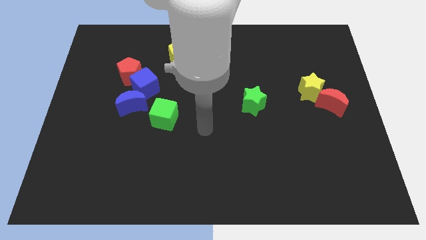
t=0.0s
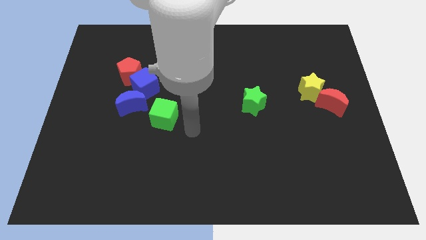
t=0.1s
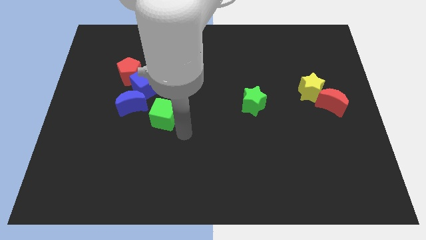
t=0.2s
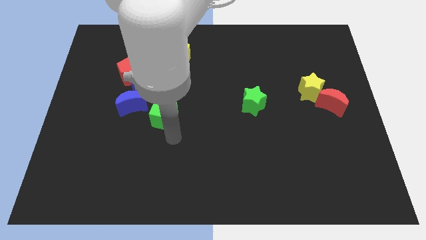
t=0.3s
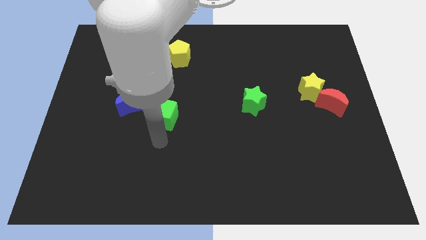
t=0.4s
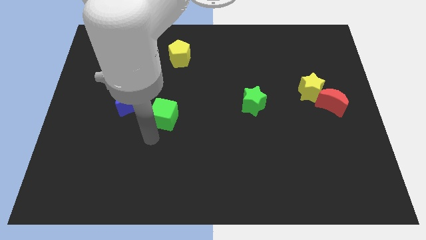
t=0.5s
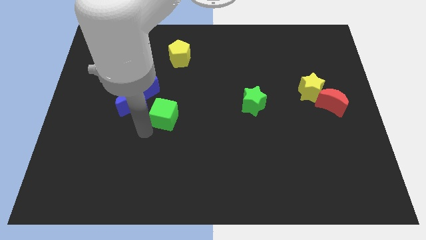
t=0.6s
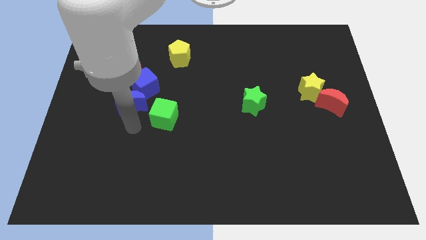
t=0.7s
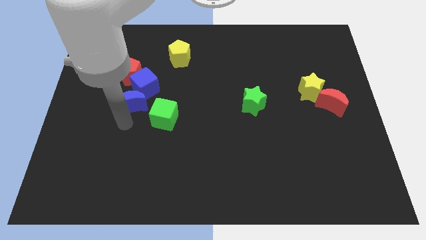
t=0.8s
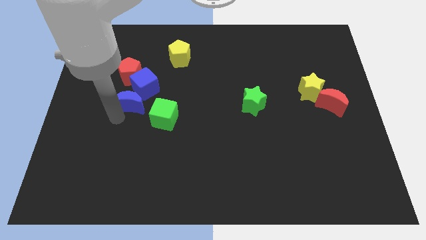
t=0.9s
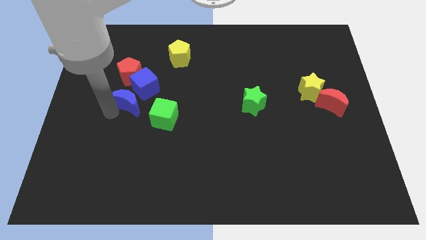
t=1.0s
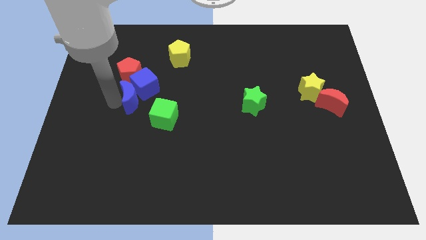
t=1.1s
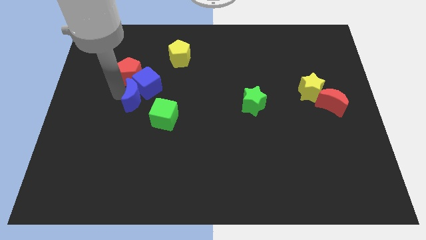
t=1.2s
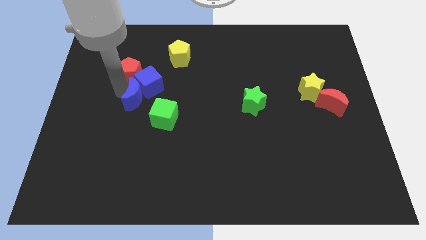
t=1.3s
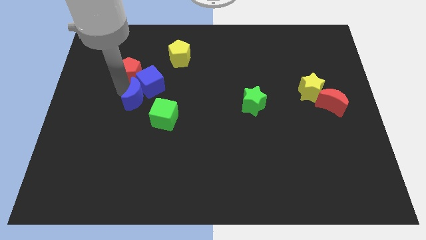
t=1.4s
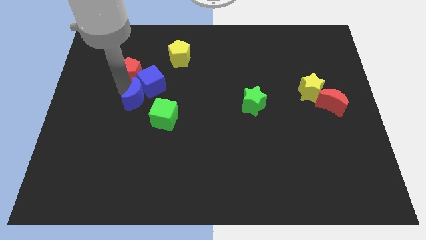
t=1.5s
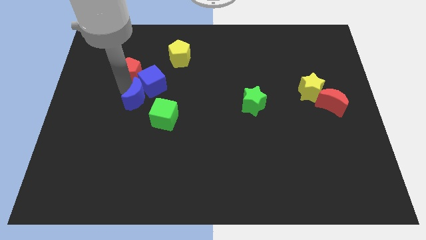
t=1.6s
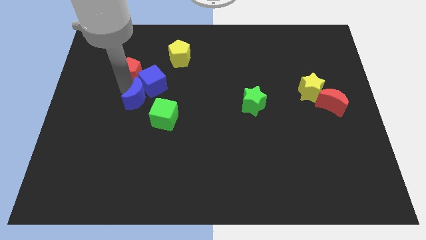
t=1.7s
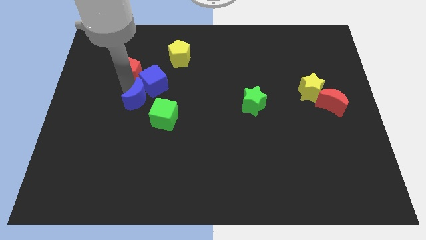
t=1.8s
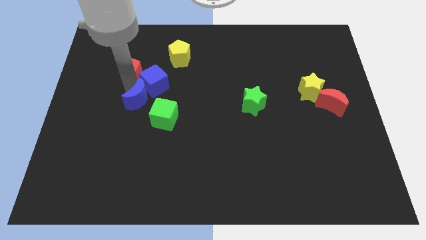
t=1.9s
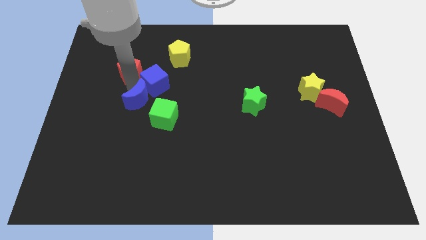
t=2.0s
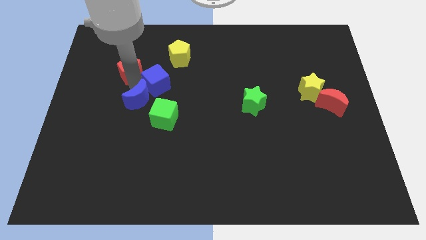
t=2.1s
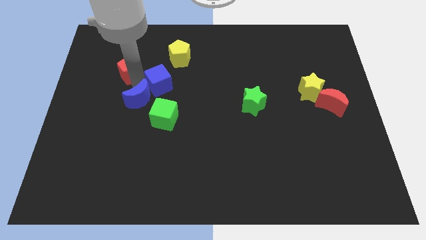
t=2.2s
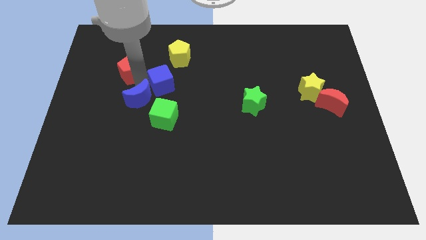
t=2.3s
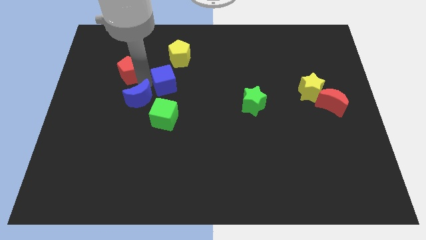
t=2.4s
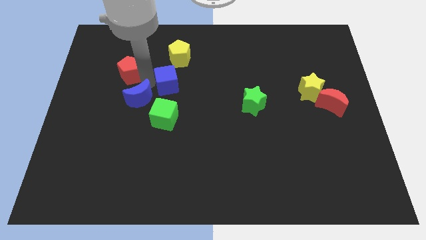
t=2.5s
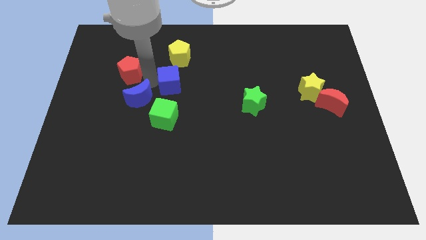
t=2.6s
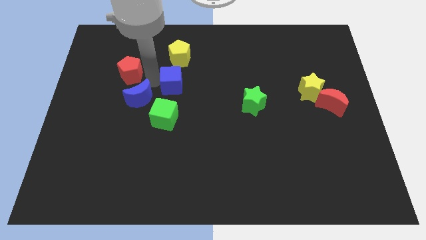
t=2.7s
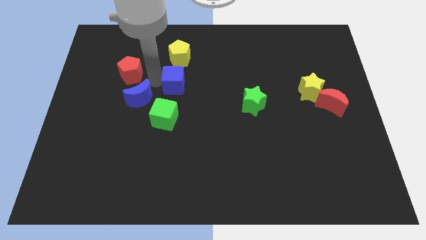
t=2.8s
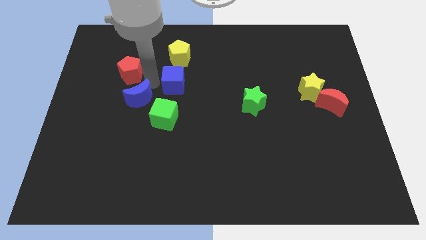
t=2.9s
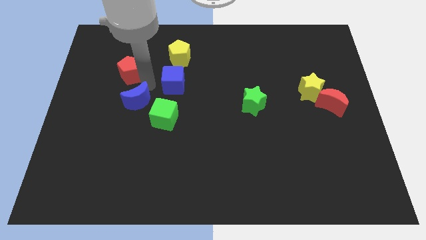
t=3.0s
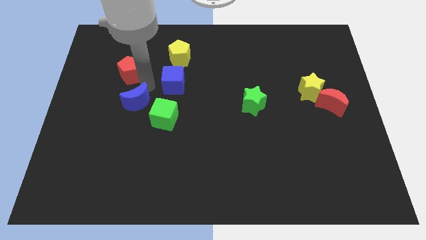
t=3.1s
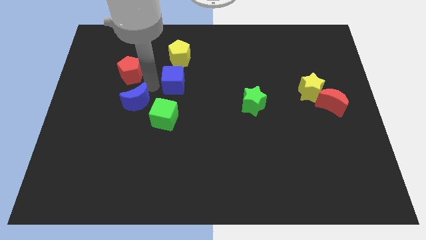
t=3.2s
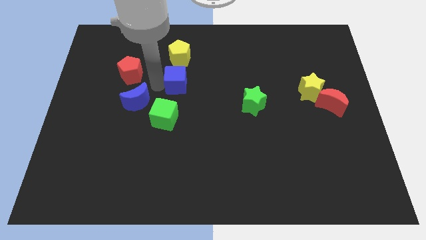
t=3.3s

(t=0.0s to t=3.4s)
move the blue cube away from the red pentagon and blue moon

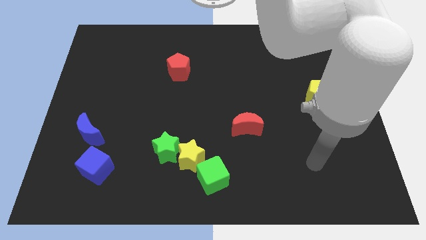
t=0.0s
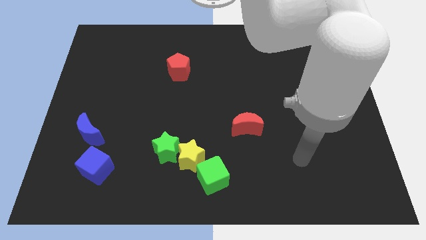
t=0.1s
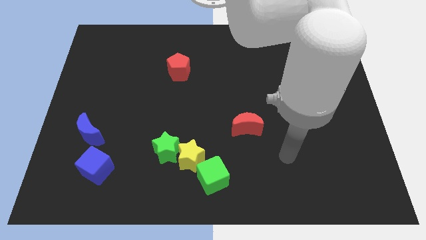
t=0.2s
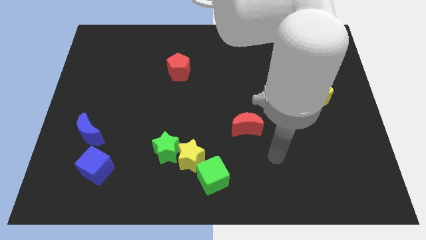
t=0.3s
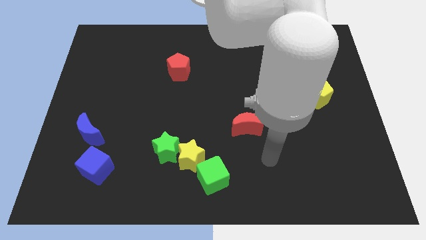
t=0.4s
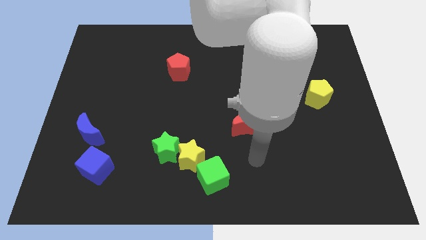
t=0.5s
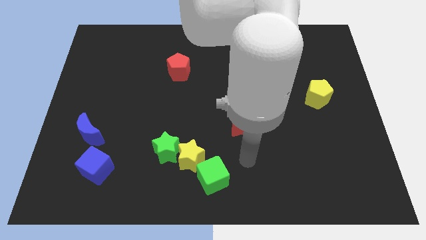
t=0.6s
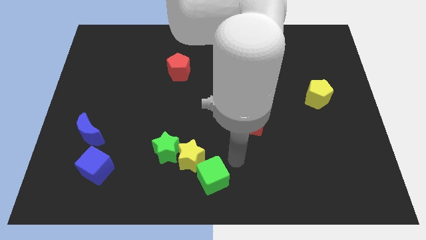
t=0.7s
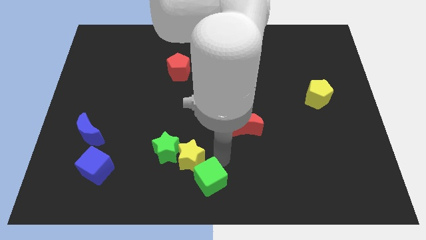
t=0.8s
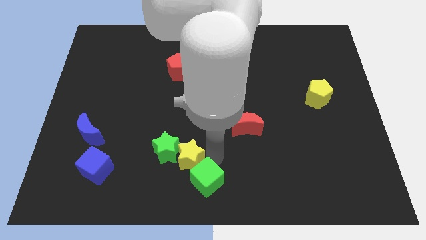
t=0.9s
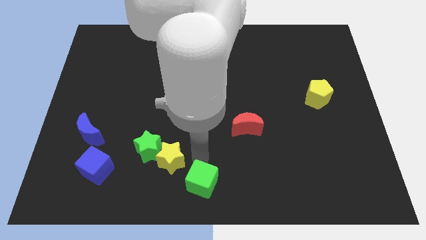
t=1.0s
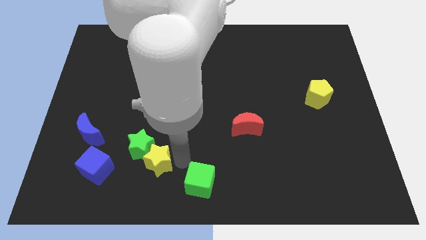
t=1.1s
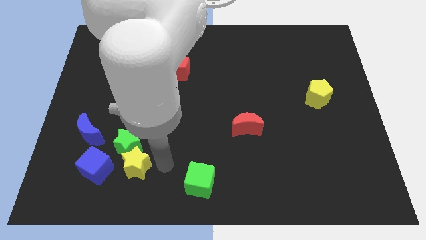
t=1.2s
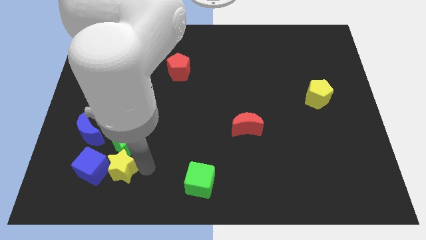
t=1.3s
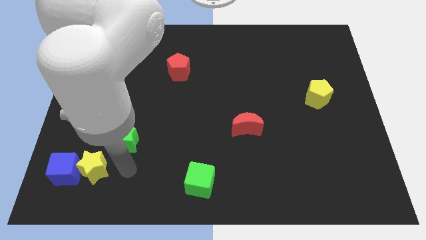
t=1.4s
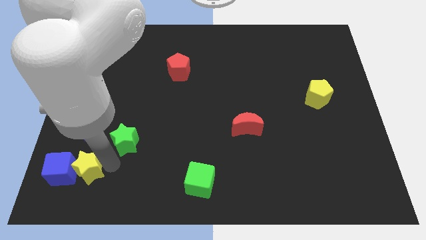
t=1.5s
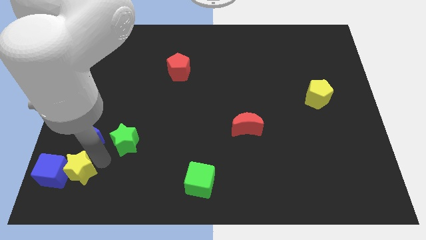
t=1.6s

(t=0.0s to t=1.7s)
separate the green star from the yellow star

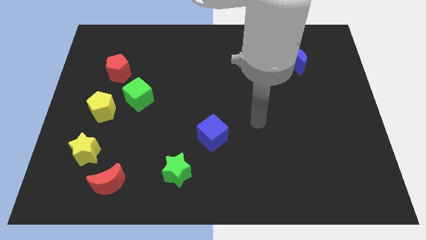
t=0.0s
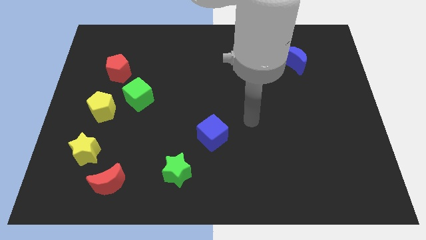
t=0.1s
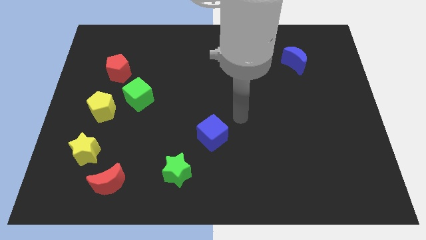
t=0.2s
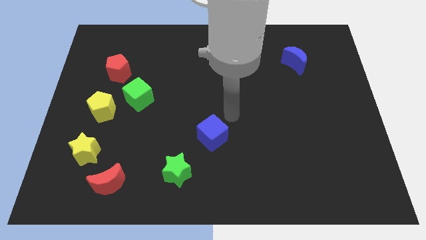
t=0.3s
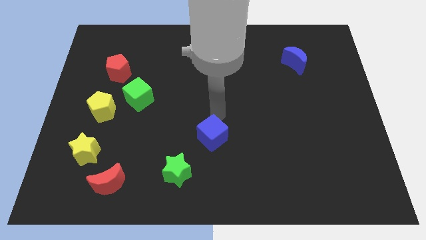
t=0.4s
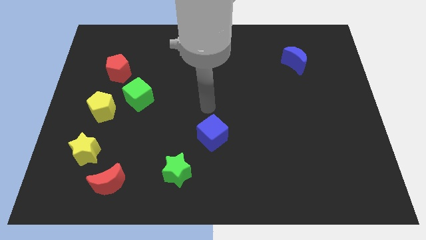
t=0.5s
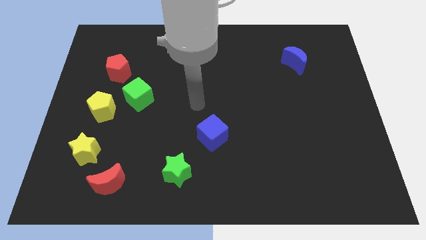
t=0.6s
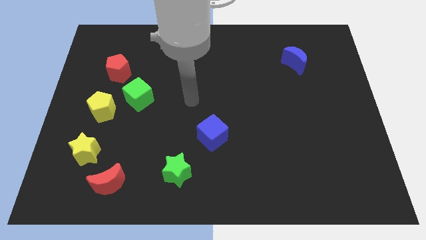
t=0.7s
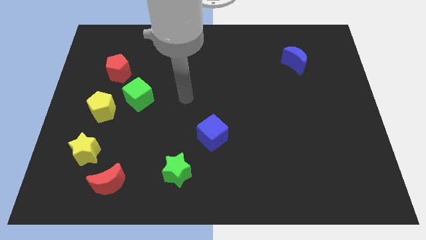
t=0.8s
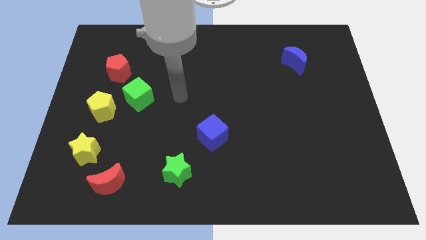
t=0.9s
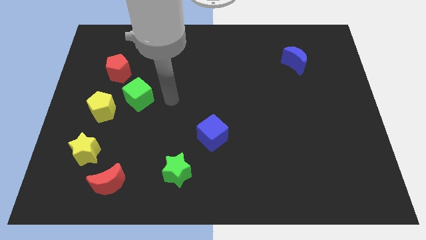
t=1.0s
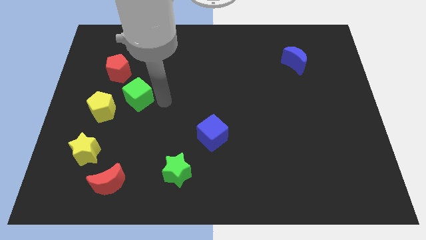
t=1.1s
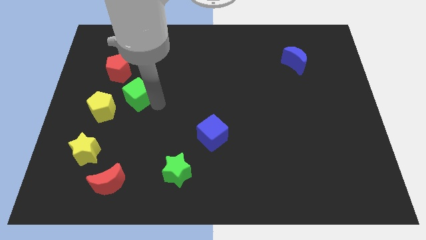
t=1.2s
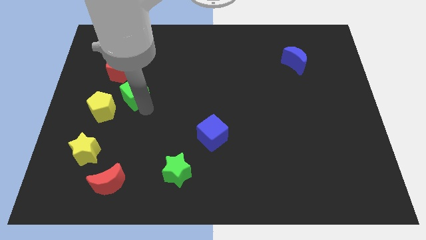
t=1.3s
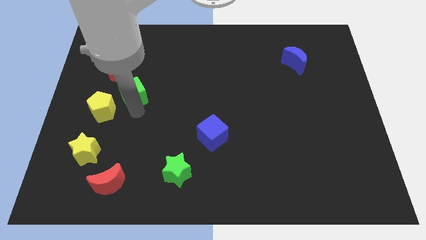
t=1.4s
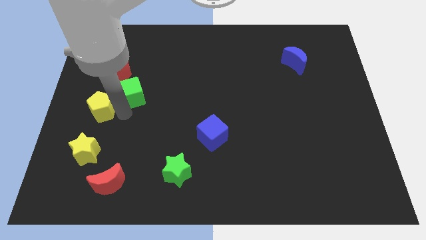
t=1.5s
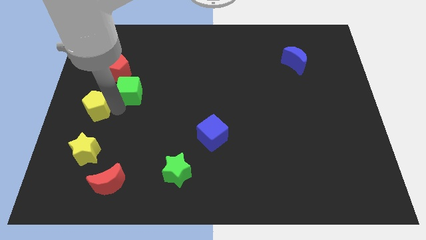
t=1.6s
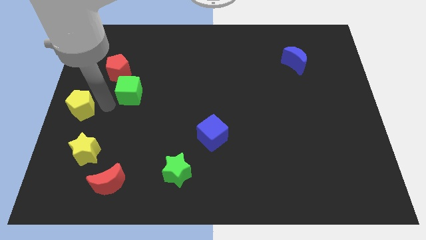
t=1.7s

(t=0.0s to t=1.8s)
move the green cube away from the yellow pentagon

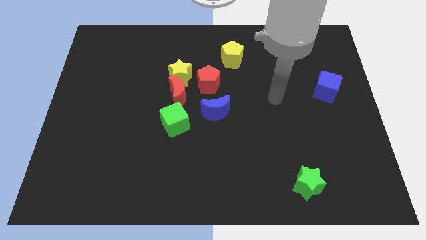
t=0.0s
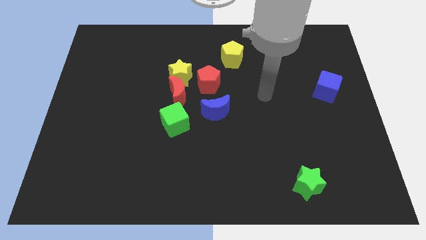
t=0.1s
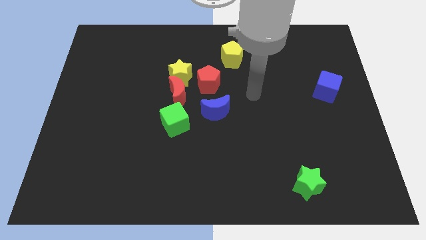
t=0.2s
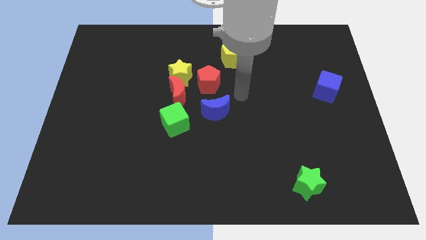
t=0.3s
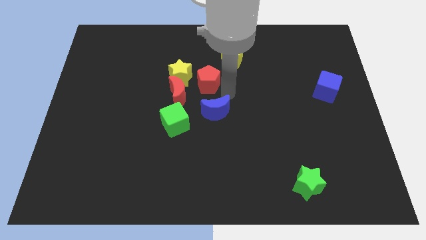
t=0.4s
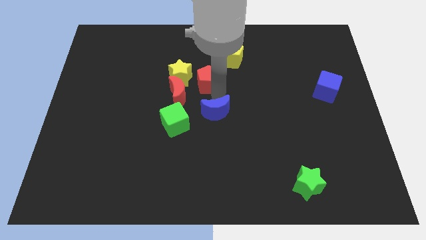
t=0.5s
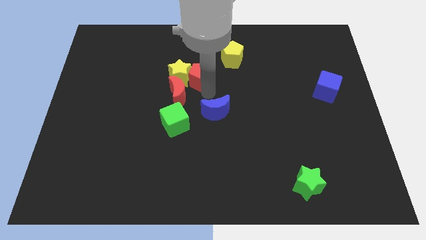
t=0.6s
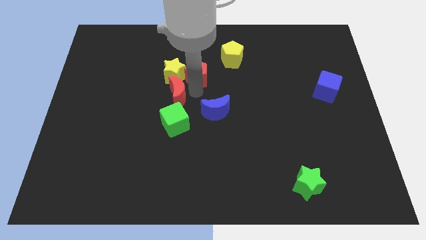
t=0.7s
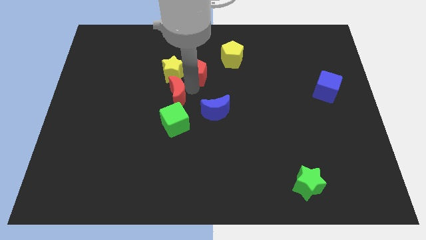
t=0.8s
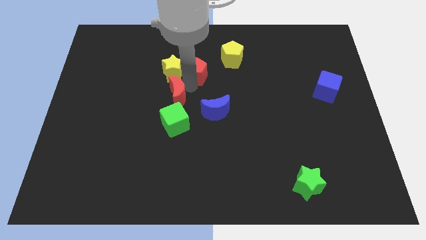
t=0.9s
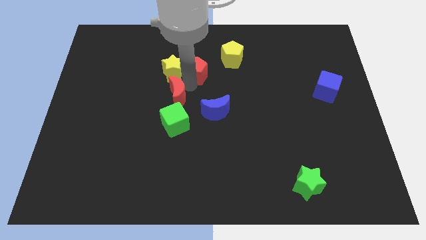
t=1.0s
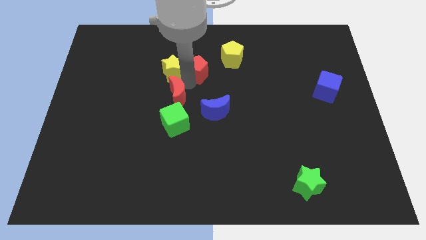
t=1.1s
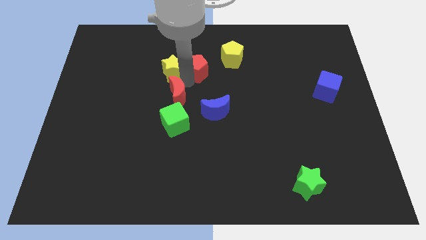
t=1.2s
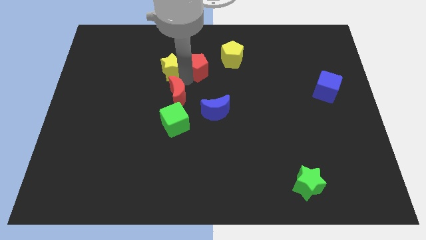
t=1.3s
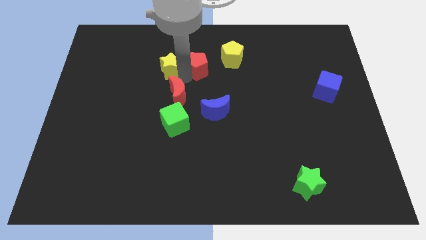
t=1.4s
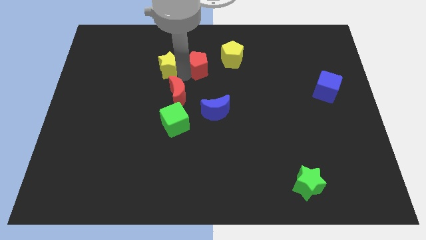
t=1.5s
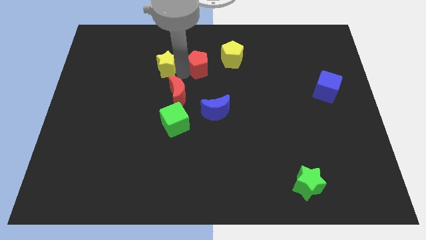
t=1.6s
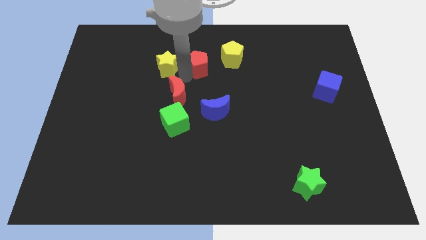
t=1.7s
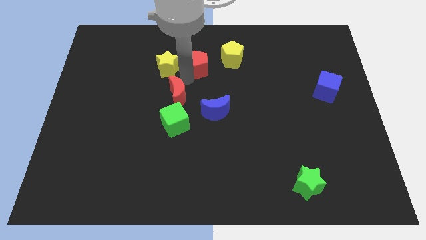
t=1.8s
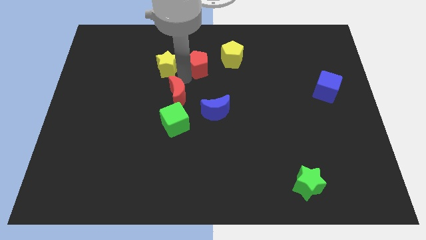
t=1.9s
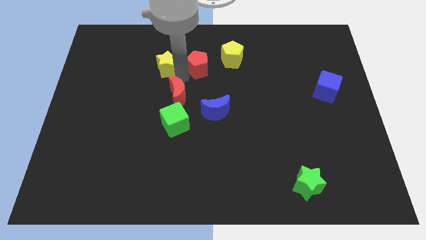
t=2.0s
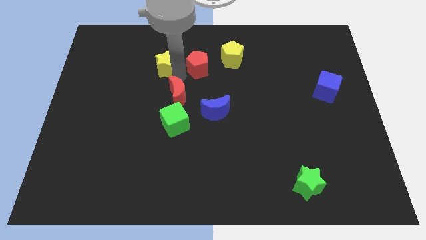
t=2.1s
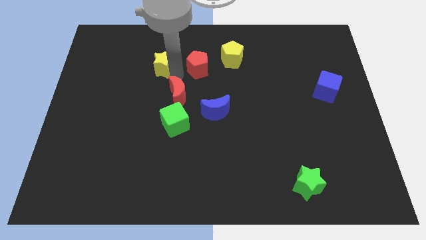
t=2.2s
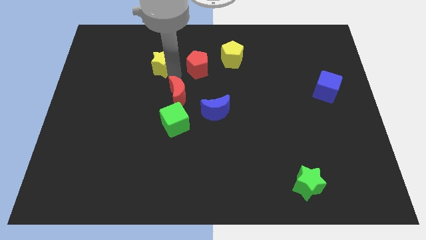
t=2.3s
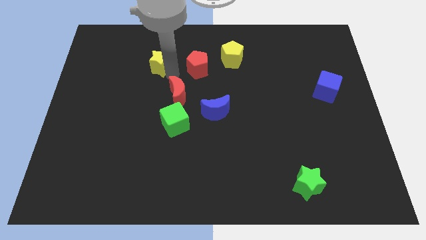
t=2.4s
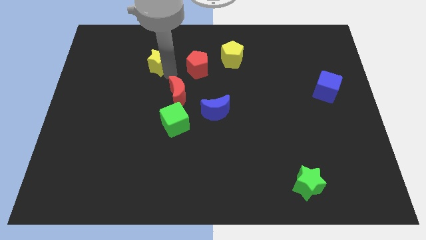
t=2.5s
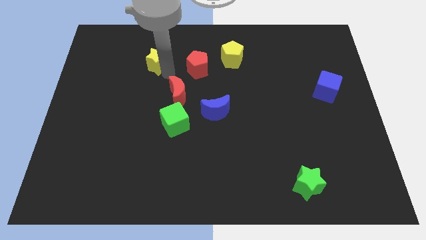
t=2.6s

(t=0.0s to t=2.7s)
move the yellow star away from the red moon and red pentagon
